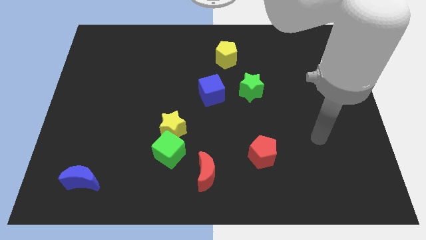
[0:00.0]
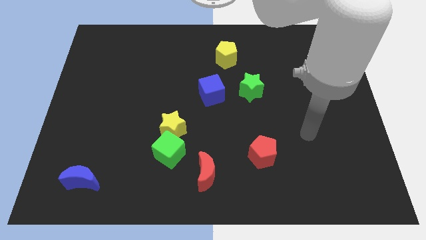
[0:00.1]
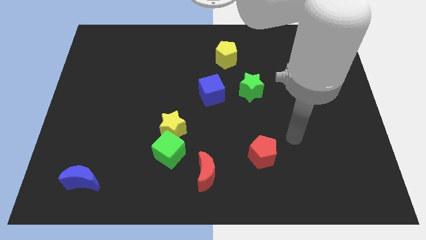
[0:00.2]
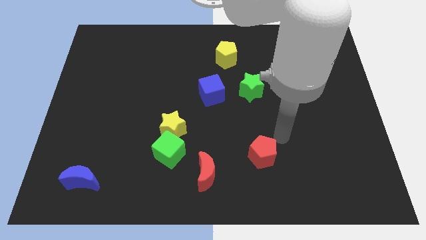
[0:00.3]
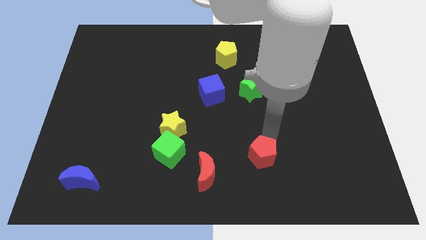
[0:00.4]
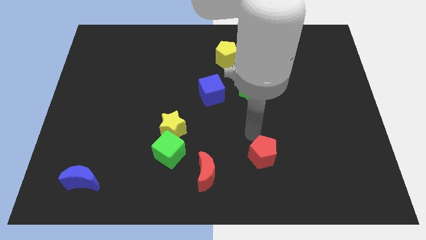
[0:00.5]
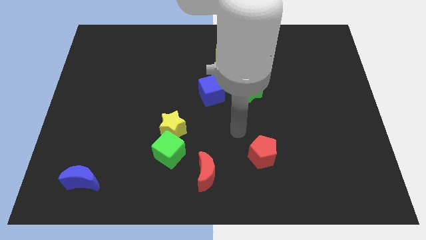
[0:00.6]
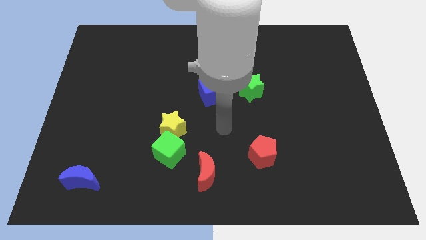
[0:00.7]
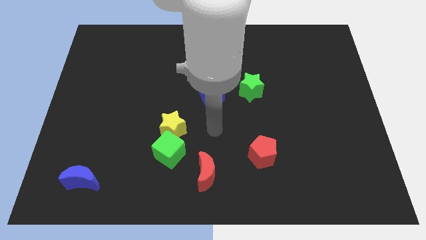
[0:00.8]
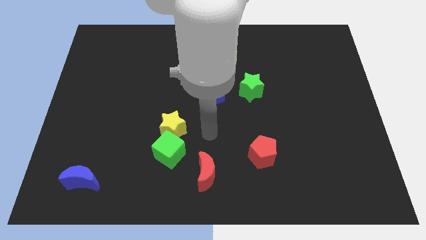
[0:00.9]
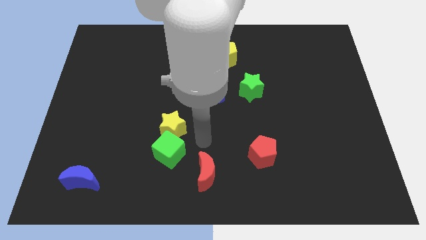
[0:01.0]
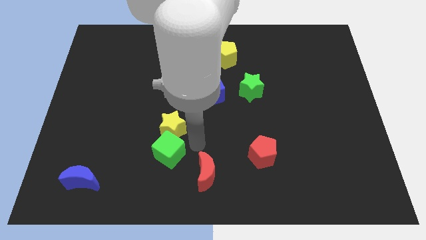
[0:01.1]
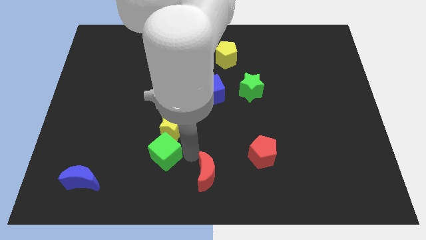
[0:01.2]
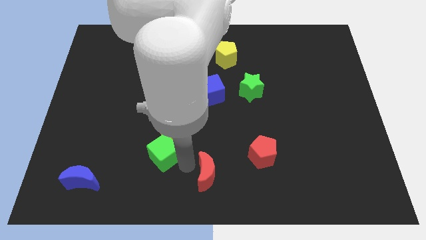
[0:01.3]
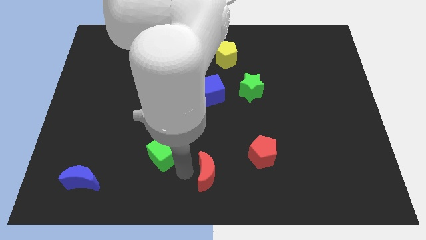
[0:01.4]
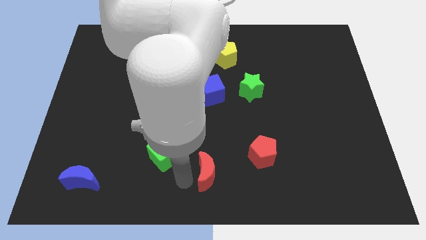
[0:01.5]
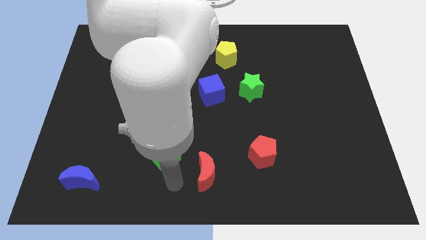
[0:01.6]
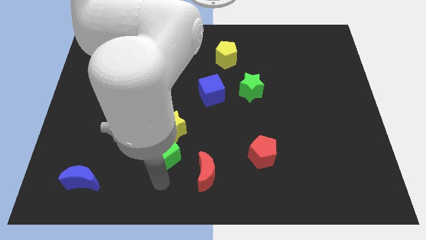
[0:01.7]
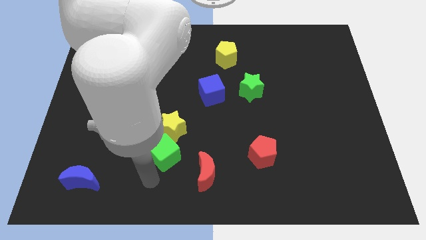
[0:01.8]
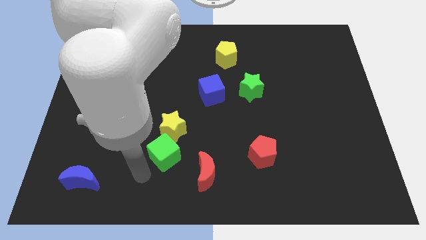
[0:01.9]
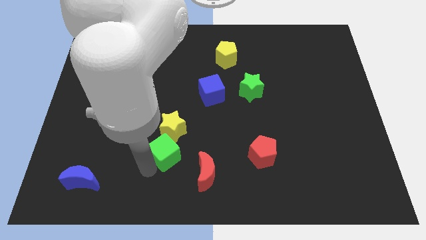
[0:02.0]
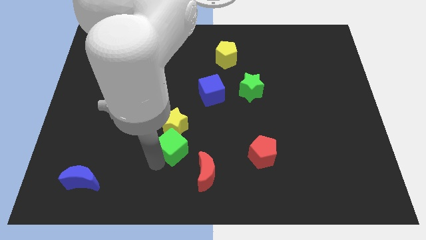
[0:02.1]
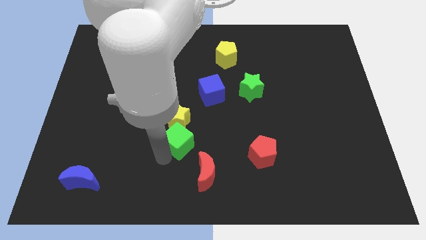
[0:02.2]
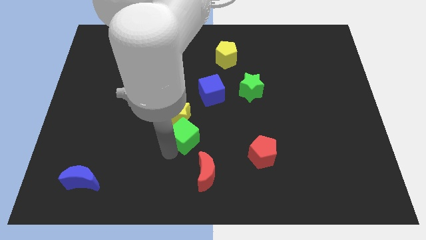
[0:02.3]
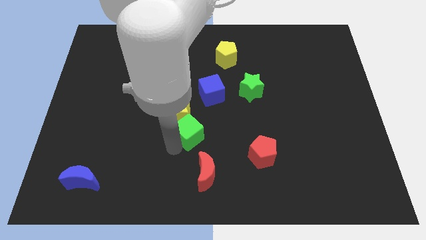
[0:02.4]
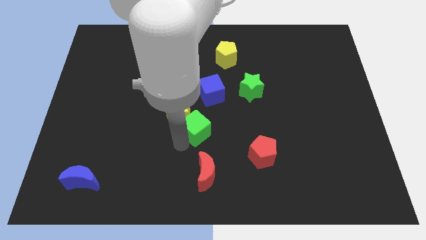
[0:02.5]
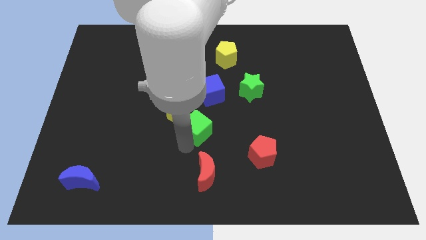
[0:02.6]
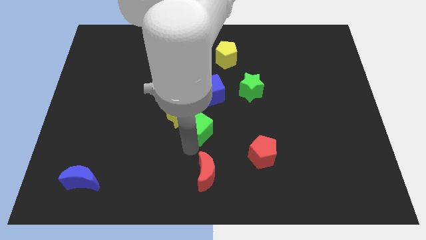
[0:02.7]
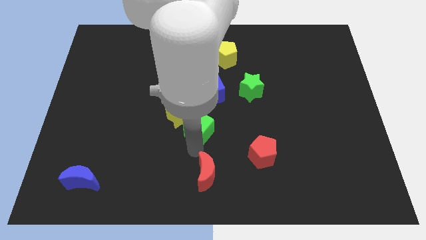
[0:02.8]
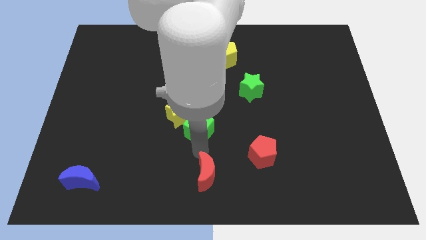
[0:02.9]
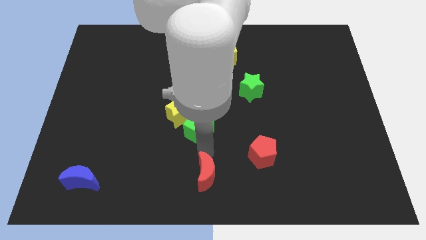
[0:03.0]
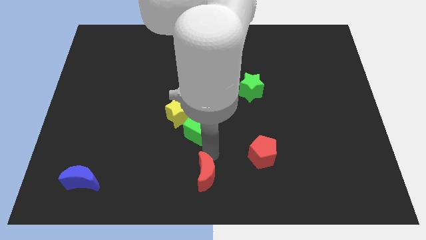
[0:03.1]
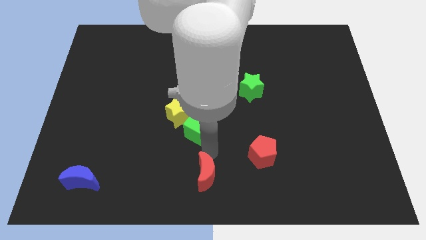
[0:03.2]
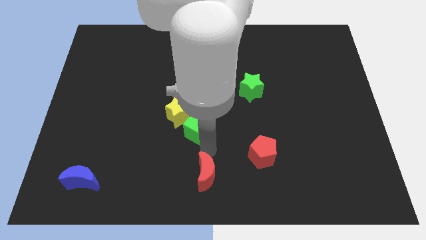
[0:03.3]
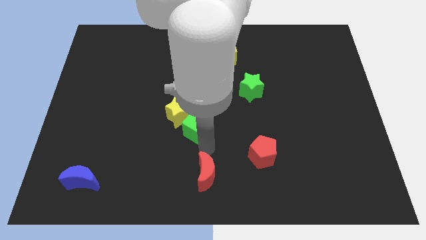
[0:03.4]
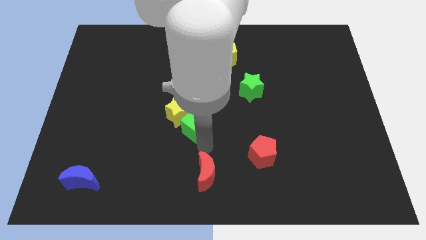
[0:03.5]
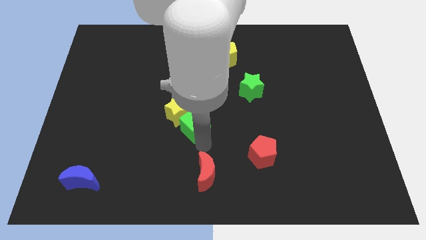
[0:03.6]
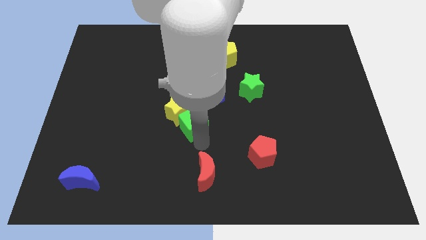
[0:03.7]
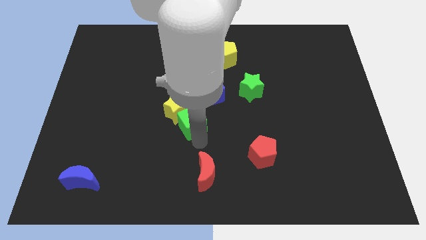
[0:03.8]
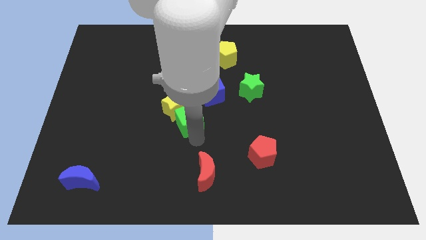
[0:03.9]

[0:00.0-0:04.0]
move the green cube a bit upwards

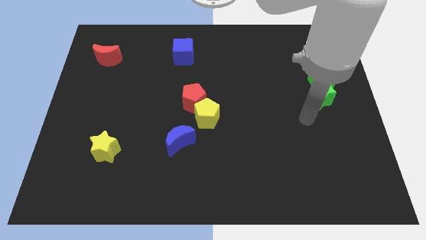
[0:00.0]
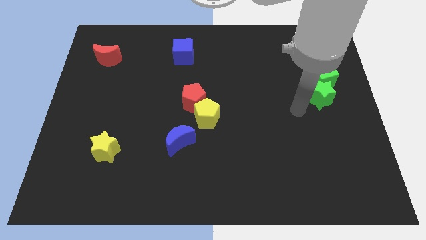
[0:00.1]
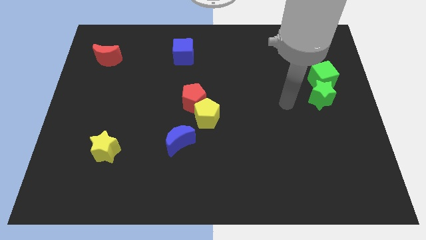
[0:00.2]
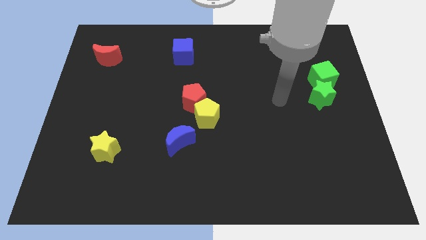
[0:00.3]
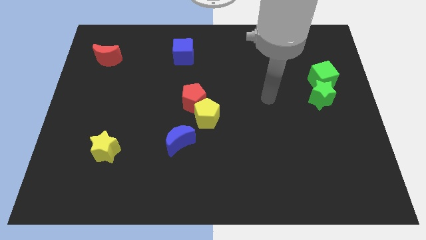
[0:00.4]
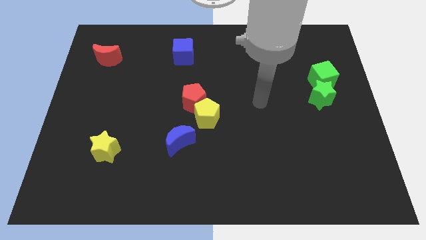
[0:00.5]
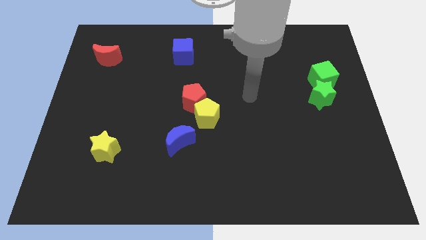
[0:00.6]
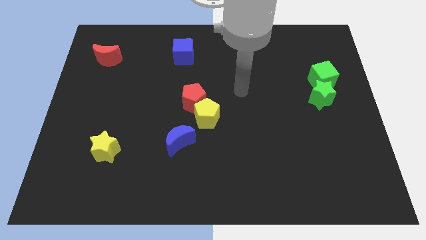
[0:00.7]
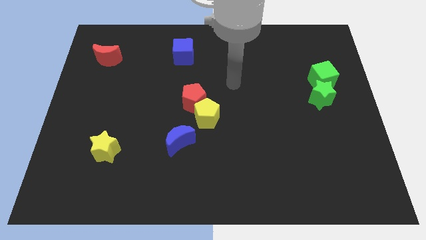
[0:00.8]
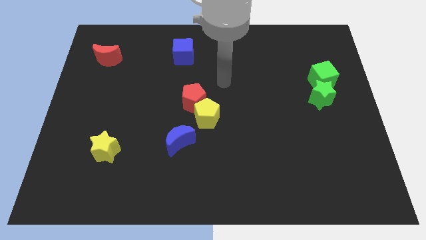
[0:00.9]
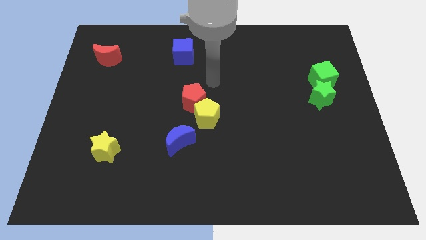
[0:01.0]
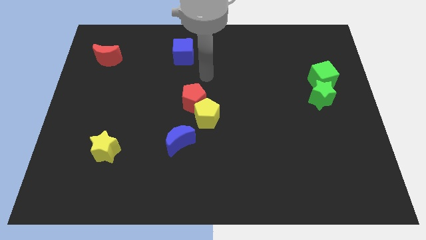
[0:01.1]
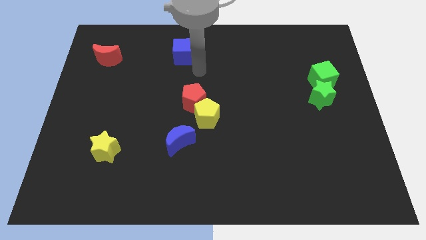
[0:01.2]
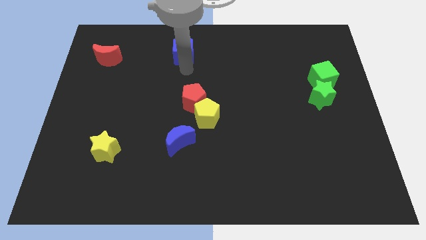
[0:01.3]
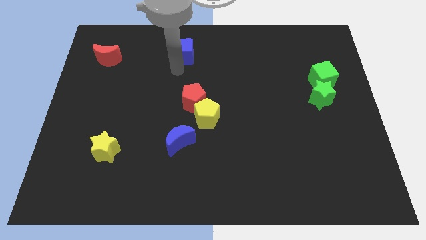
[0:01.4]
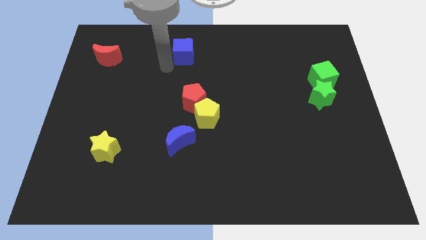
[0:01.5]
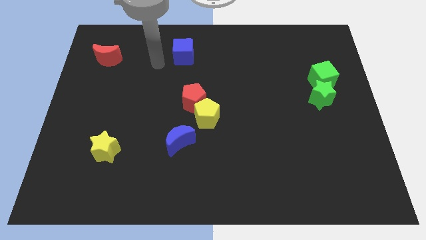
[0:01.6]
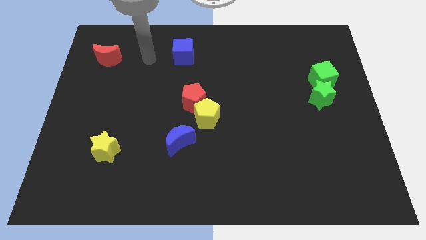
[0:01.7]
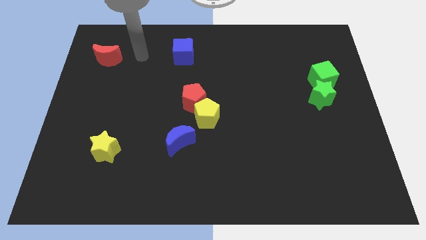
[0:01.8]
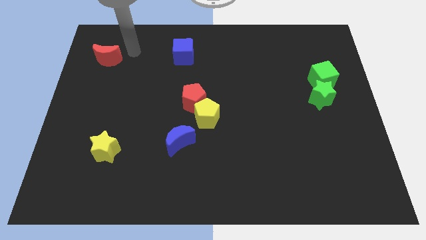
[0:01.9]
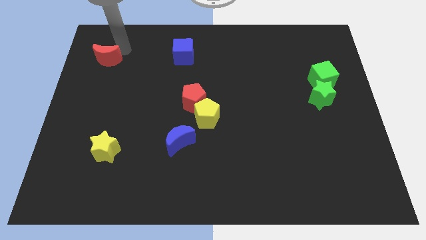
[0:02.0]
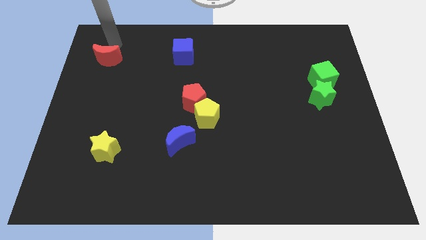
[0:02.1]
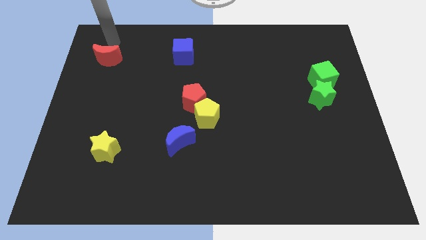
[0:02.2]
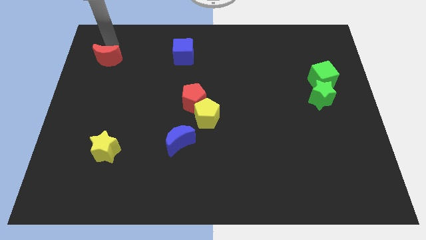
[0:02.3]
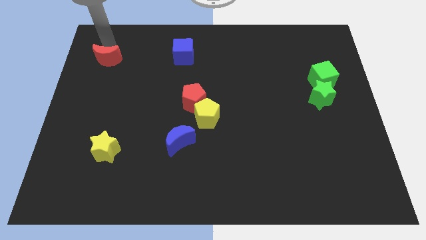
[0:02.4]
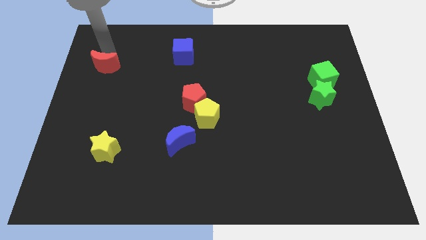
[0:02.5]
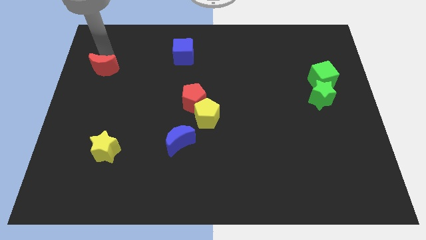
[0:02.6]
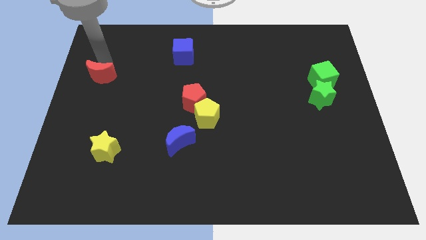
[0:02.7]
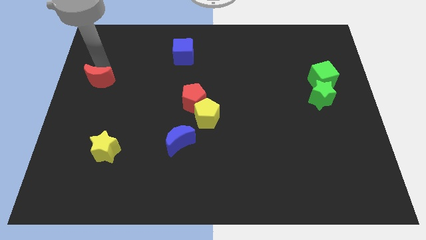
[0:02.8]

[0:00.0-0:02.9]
slightly push the red moon downwards

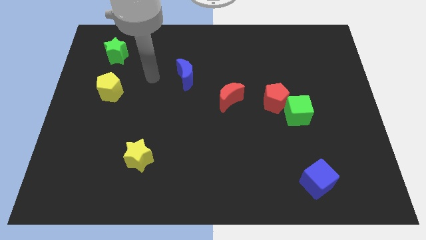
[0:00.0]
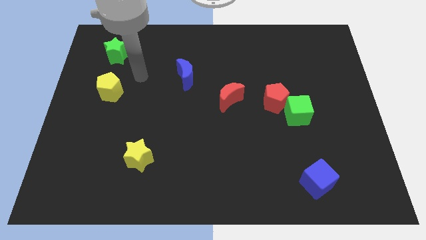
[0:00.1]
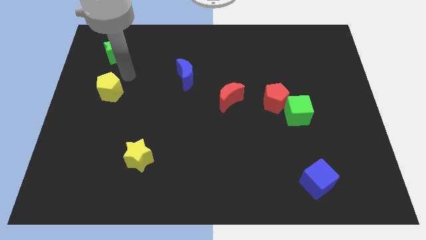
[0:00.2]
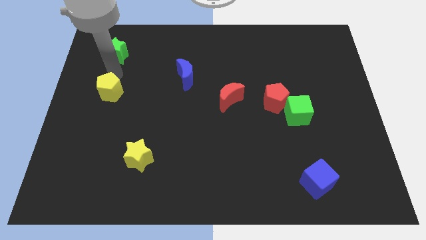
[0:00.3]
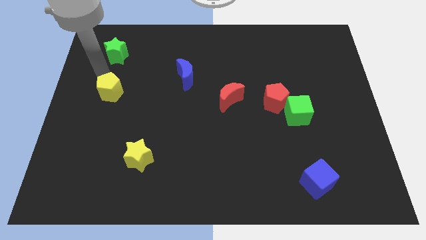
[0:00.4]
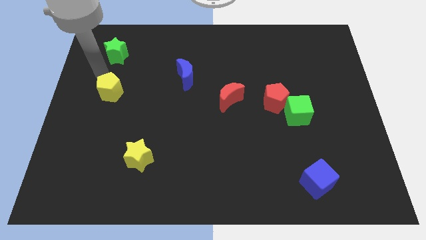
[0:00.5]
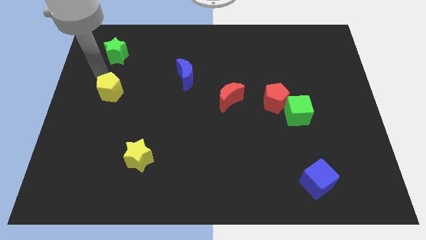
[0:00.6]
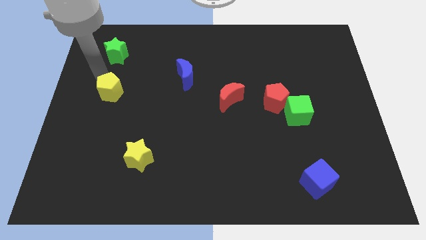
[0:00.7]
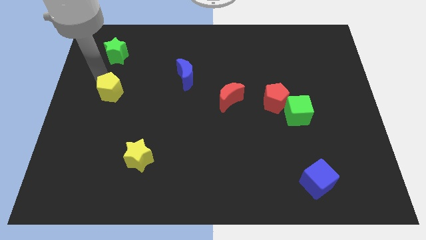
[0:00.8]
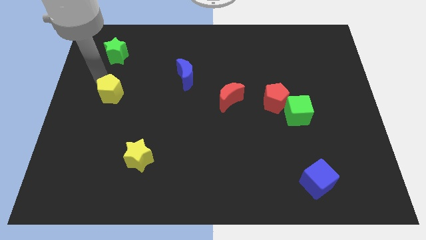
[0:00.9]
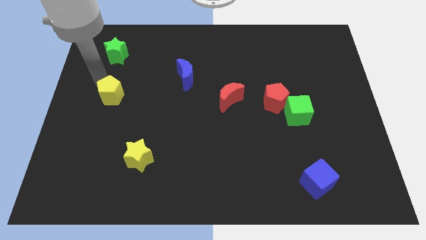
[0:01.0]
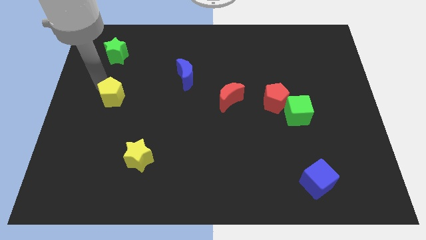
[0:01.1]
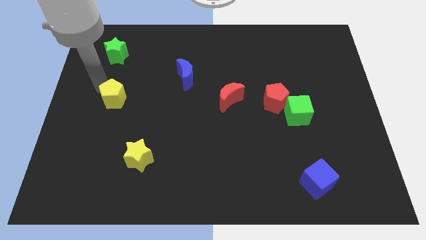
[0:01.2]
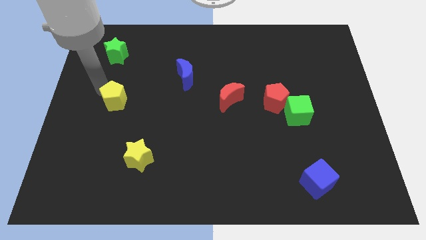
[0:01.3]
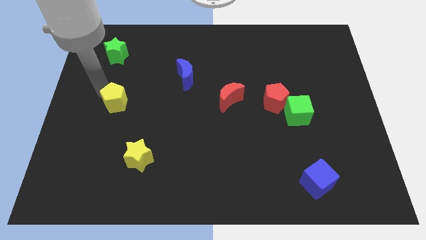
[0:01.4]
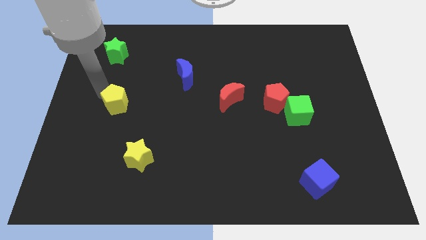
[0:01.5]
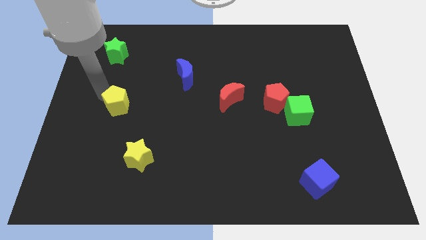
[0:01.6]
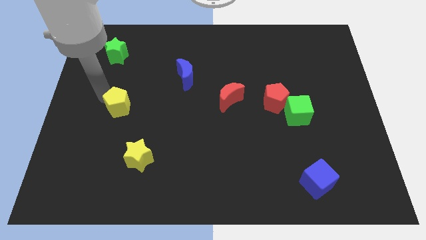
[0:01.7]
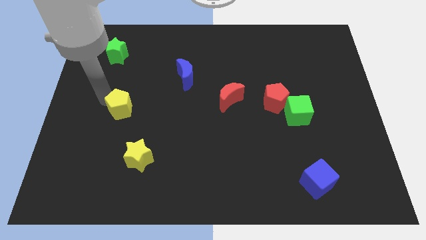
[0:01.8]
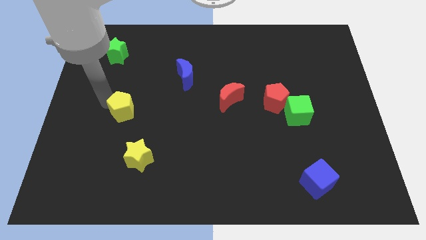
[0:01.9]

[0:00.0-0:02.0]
slightly move the yellow pentagon downwards and then right
